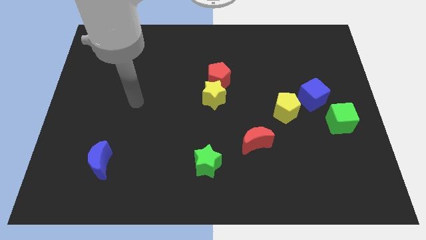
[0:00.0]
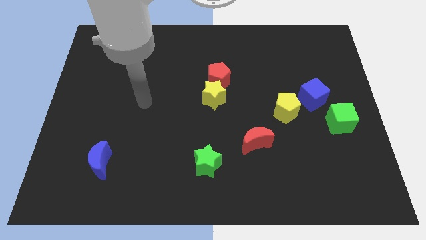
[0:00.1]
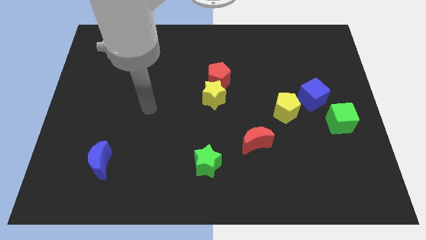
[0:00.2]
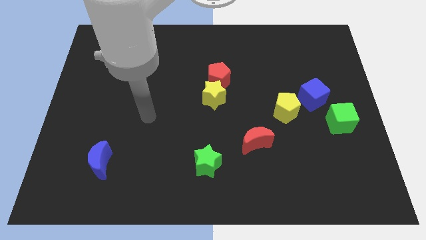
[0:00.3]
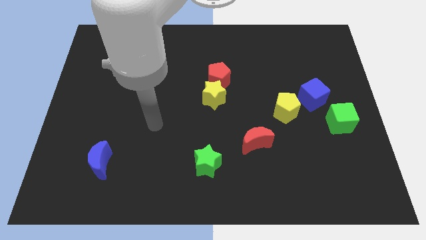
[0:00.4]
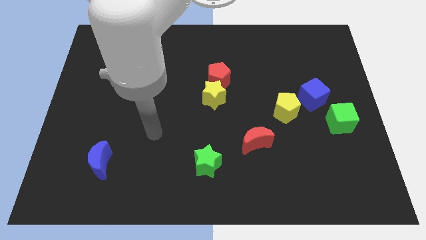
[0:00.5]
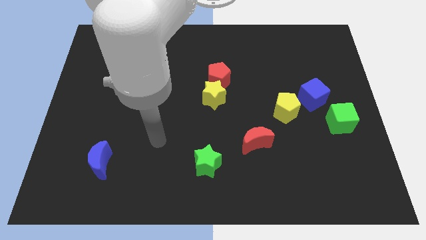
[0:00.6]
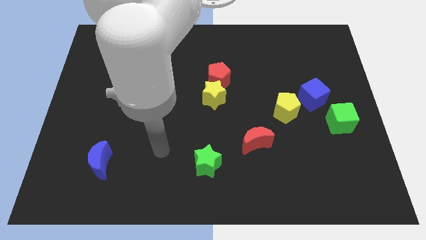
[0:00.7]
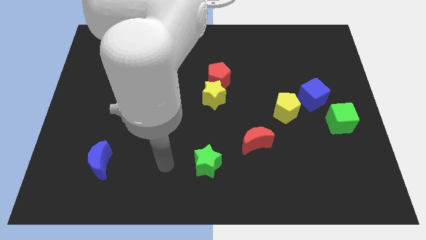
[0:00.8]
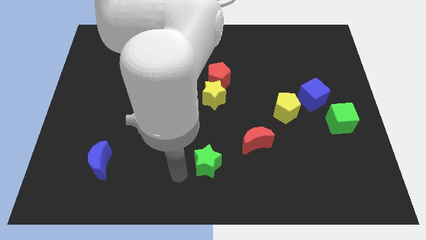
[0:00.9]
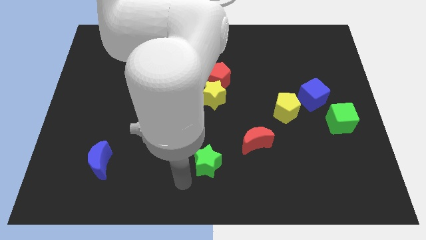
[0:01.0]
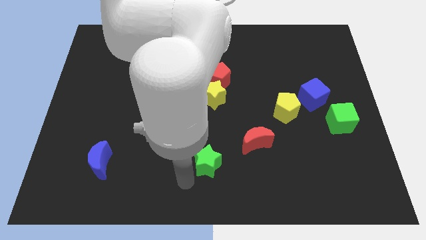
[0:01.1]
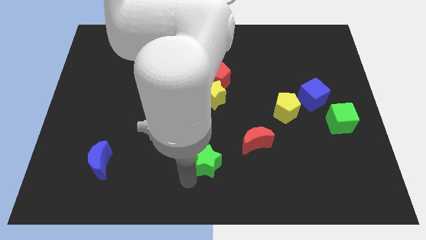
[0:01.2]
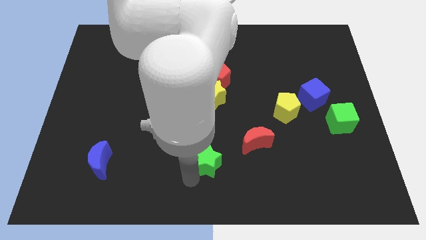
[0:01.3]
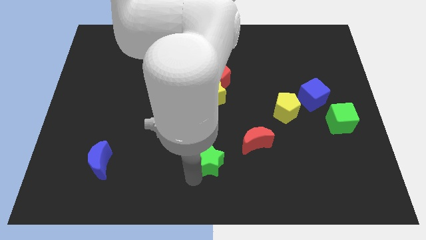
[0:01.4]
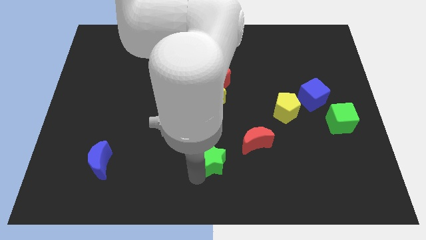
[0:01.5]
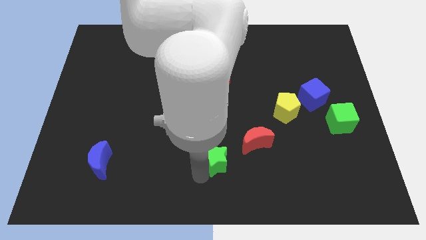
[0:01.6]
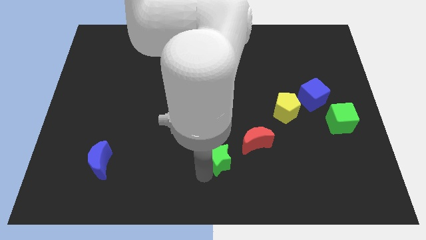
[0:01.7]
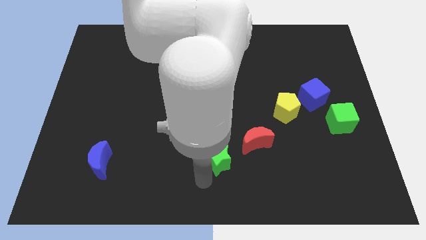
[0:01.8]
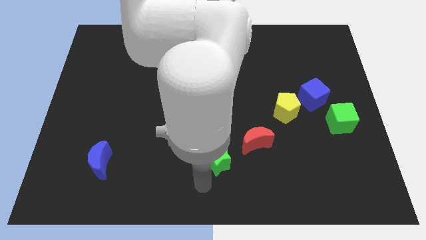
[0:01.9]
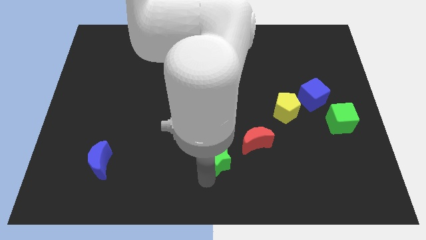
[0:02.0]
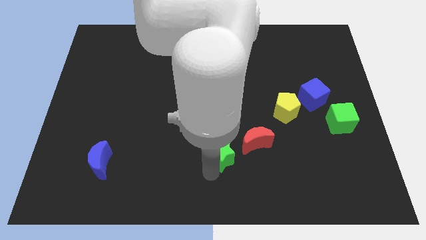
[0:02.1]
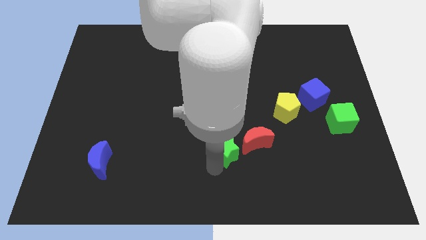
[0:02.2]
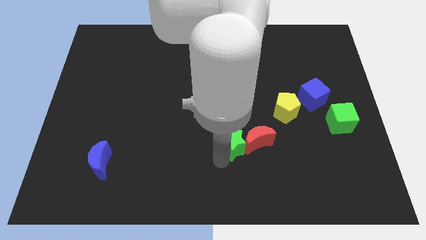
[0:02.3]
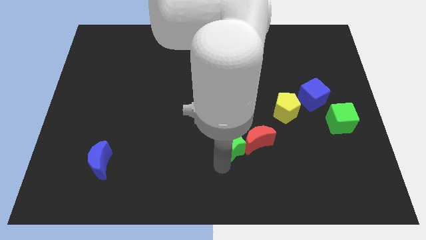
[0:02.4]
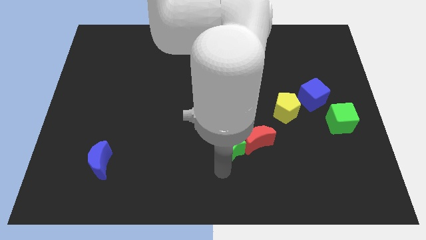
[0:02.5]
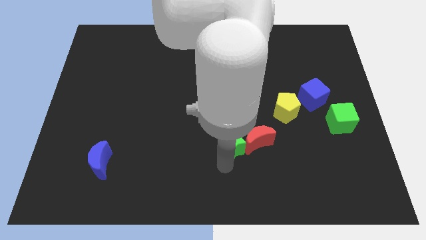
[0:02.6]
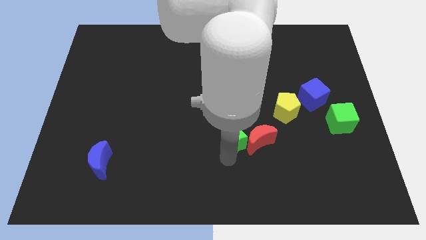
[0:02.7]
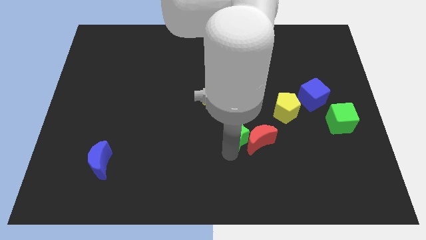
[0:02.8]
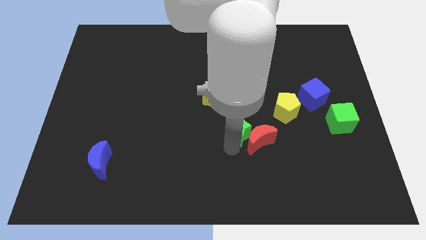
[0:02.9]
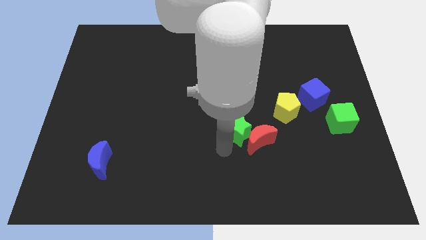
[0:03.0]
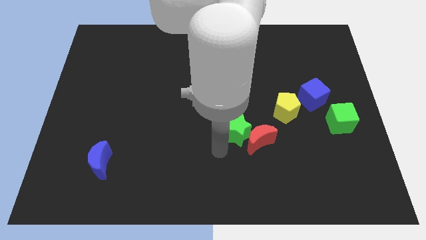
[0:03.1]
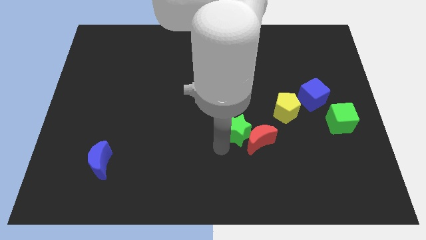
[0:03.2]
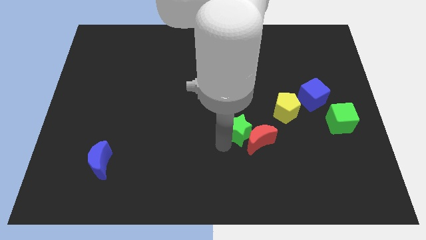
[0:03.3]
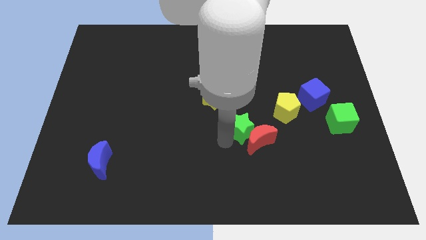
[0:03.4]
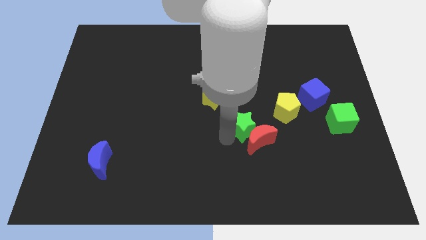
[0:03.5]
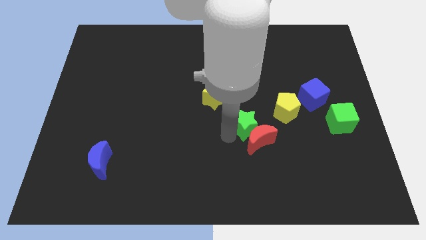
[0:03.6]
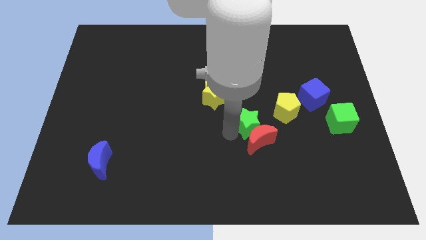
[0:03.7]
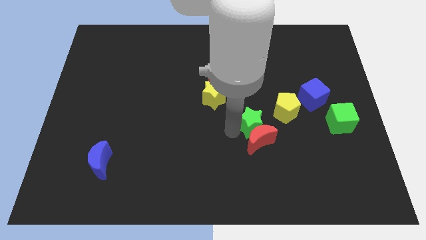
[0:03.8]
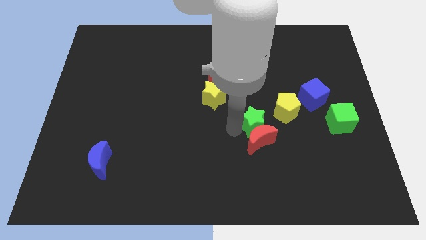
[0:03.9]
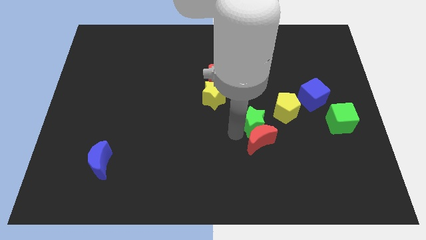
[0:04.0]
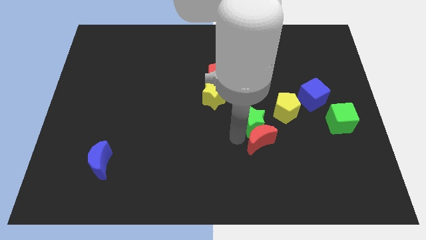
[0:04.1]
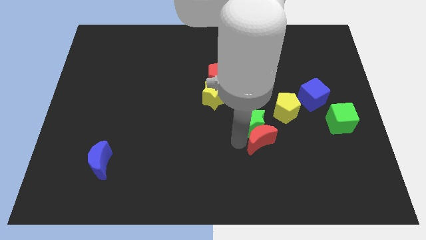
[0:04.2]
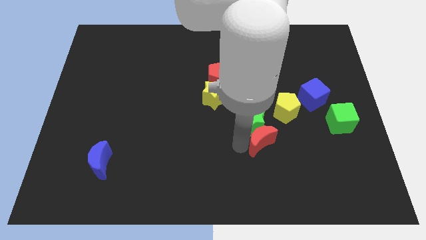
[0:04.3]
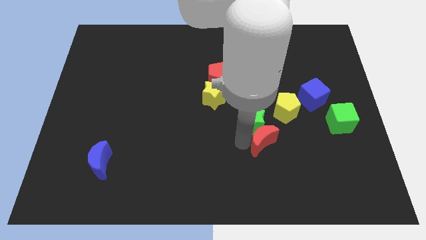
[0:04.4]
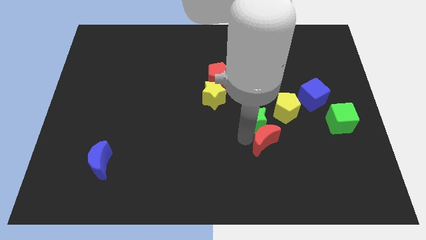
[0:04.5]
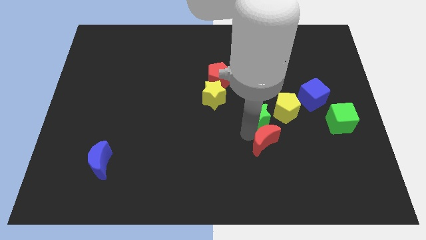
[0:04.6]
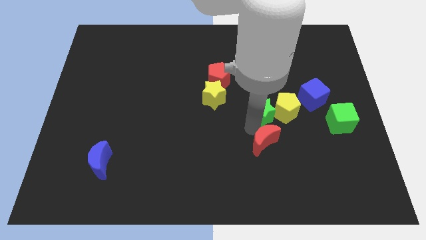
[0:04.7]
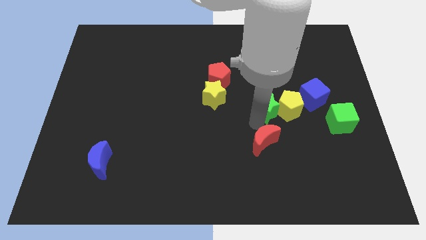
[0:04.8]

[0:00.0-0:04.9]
slide the green star upwards and to the right

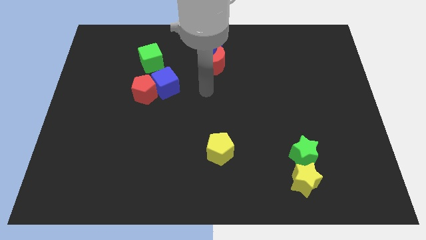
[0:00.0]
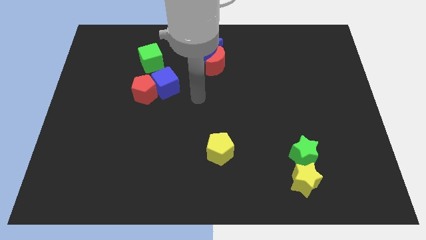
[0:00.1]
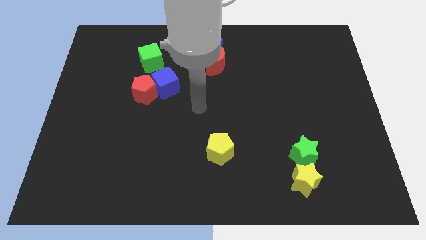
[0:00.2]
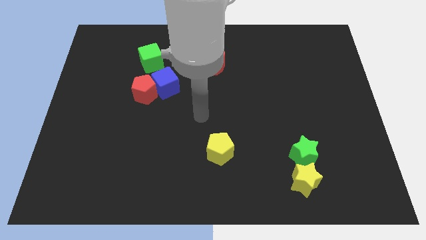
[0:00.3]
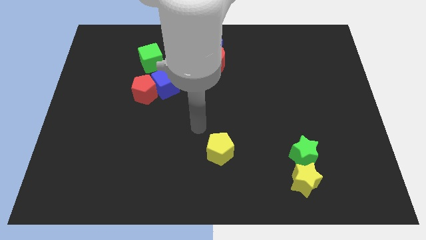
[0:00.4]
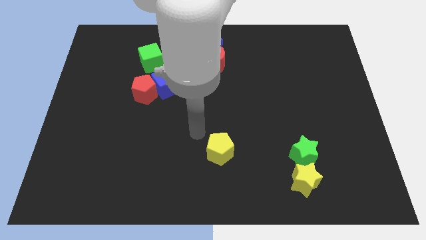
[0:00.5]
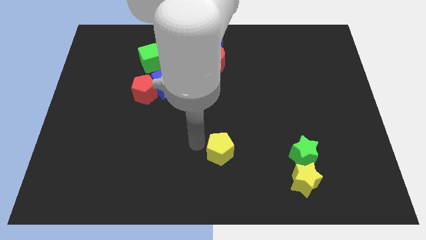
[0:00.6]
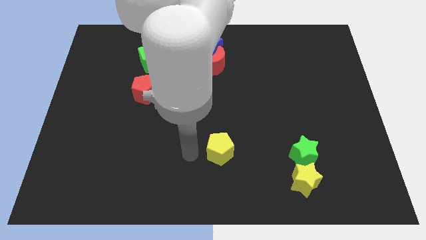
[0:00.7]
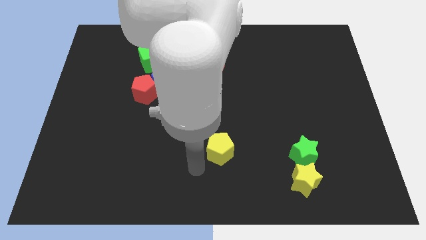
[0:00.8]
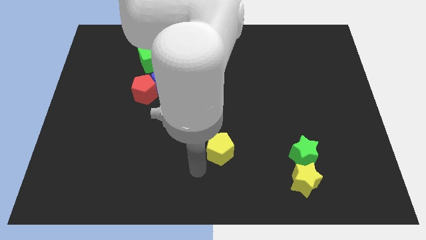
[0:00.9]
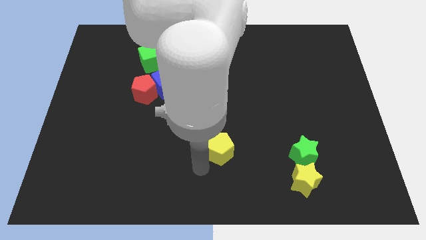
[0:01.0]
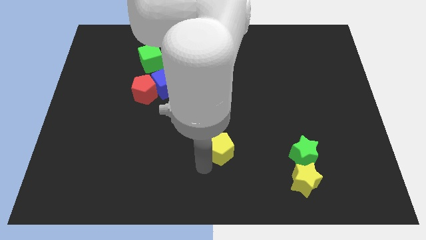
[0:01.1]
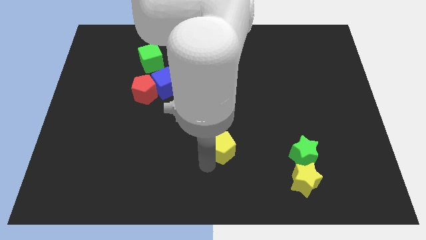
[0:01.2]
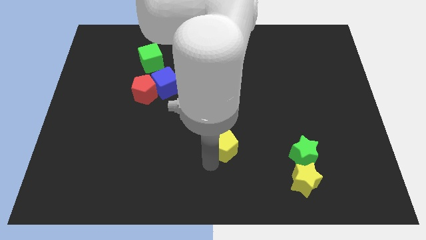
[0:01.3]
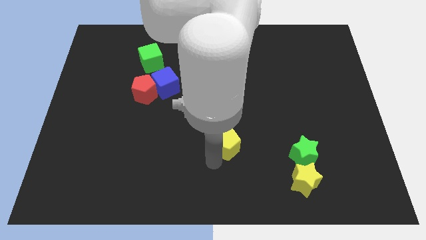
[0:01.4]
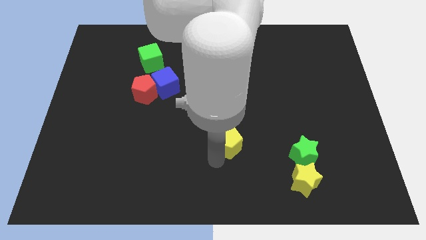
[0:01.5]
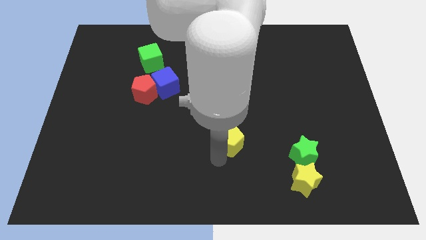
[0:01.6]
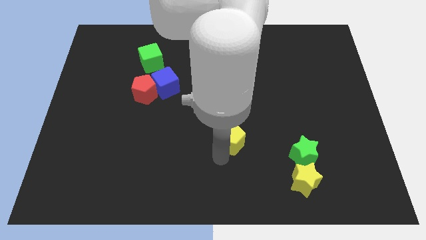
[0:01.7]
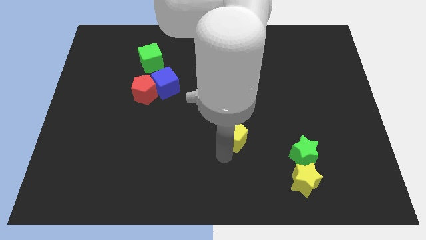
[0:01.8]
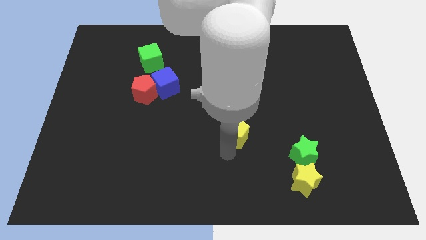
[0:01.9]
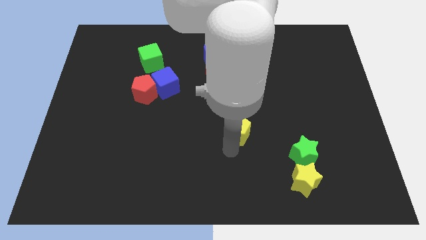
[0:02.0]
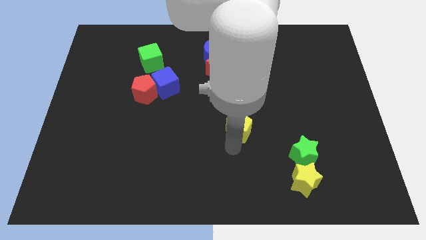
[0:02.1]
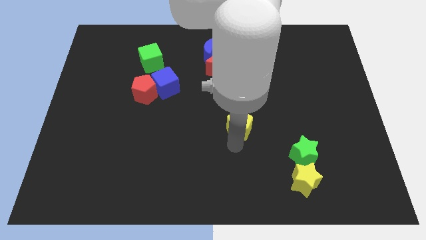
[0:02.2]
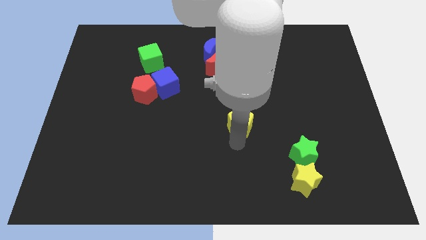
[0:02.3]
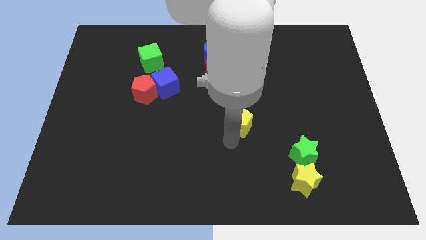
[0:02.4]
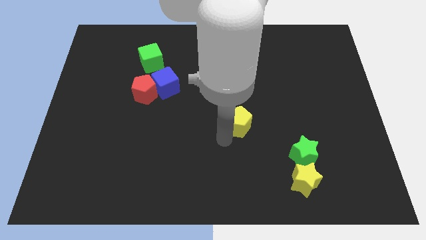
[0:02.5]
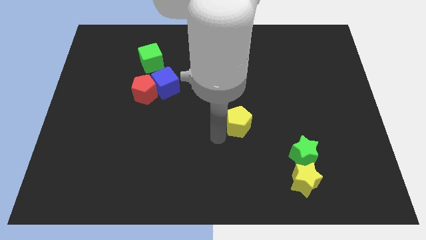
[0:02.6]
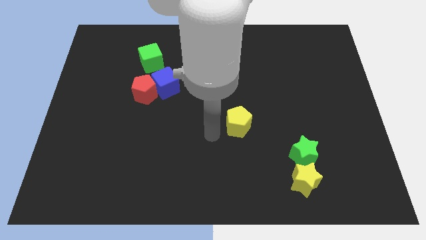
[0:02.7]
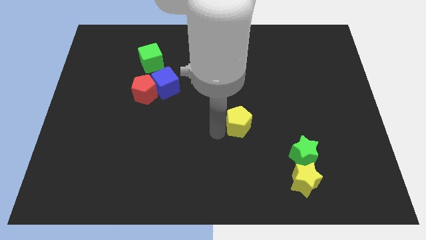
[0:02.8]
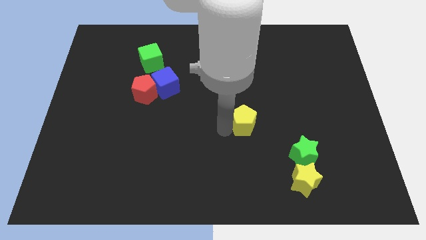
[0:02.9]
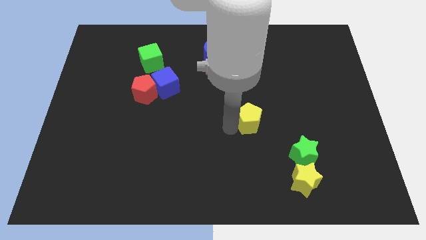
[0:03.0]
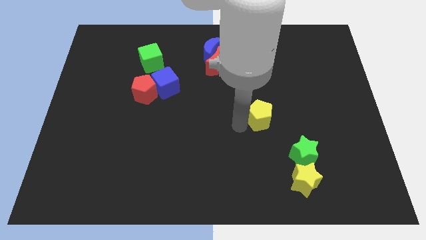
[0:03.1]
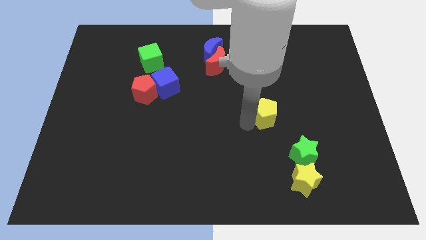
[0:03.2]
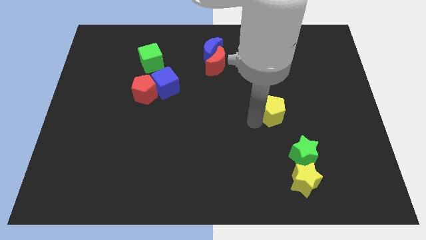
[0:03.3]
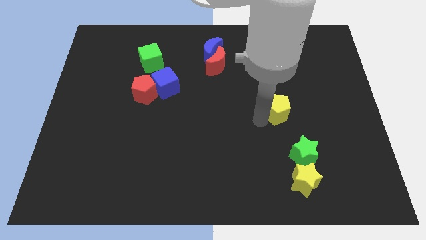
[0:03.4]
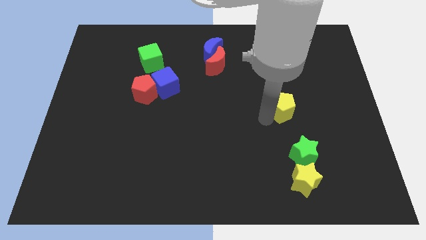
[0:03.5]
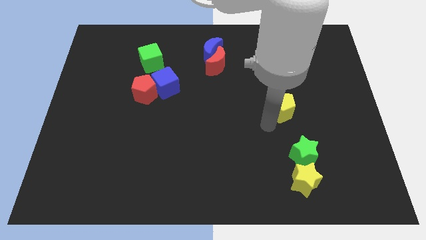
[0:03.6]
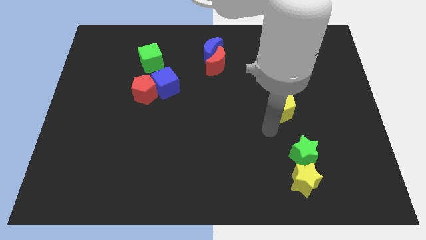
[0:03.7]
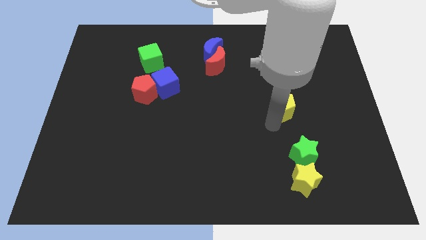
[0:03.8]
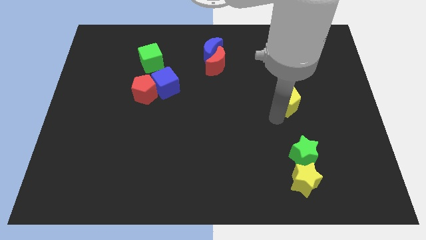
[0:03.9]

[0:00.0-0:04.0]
push the yellow pentagon up and to the right
